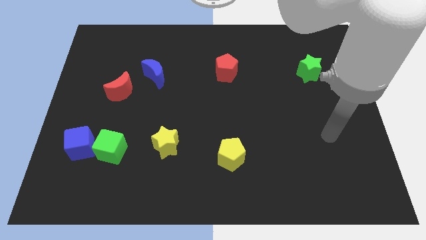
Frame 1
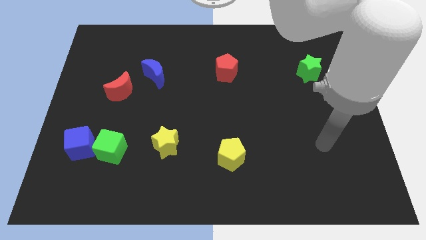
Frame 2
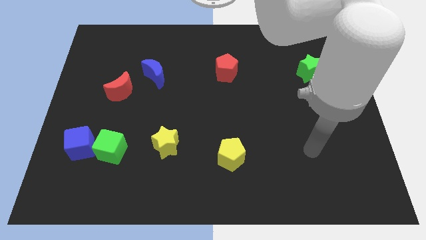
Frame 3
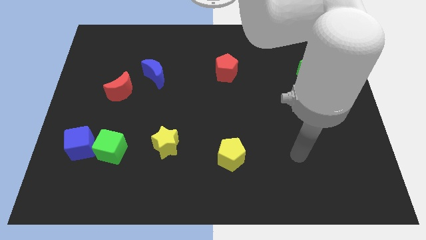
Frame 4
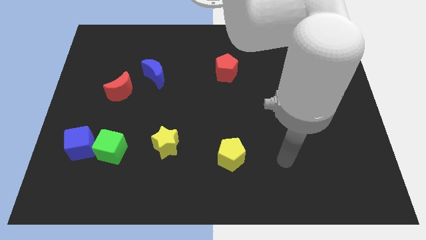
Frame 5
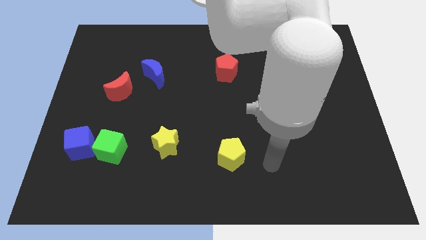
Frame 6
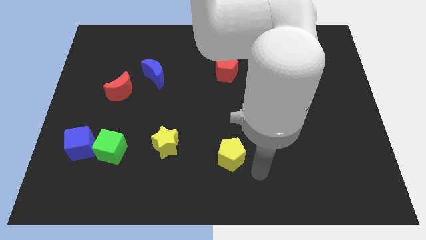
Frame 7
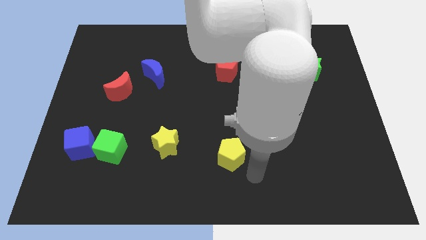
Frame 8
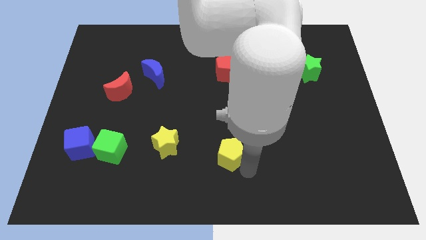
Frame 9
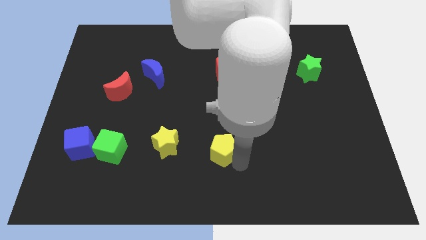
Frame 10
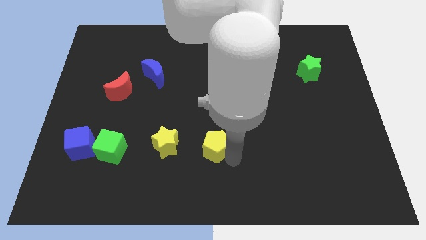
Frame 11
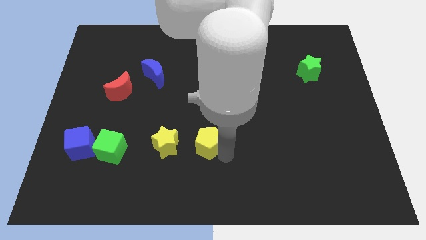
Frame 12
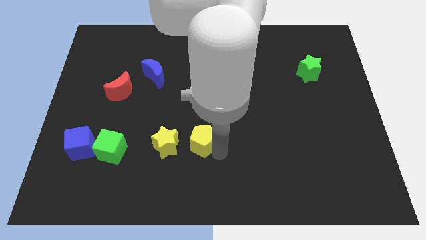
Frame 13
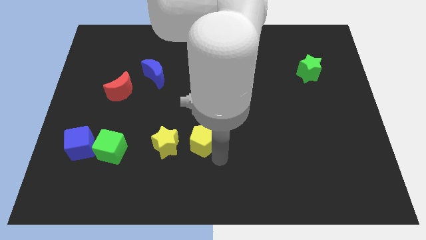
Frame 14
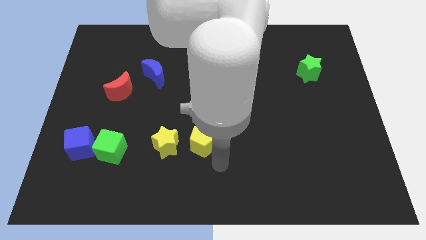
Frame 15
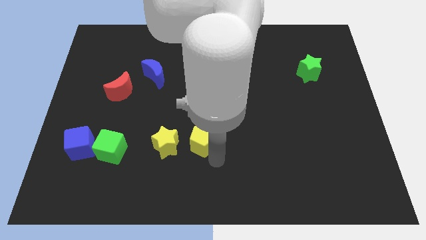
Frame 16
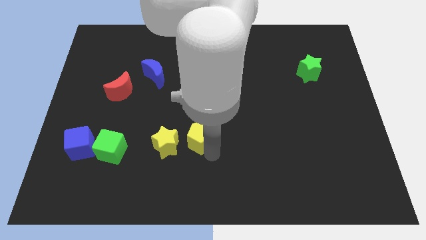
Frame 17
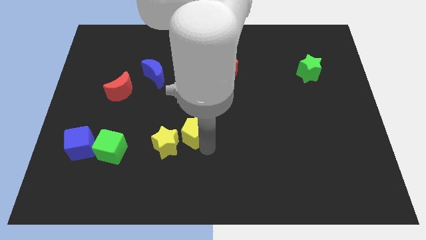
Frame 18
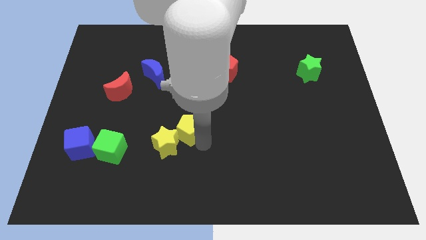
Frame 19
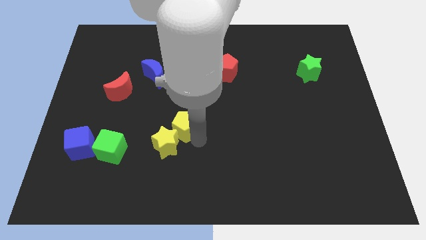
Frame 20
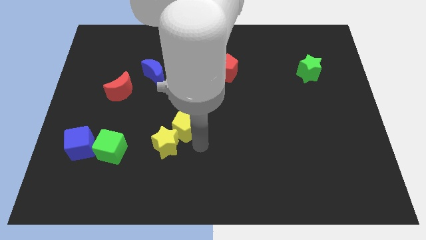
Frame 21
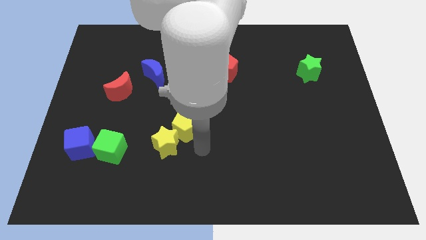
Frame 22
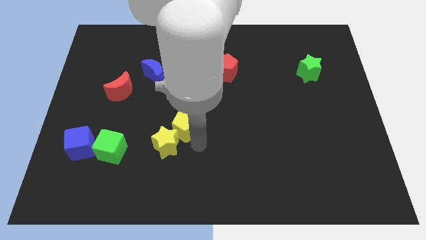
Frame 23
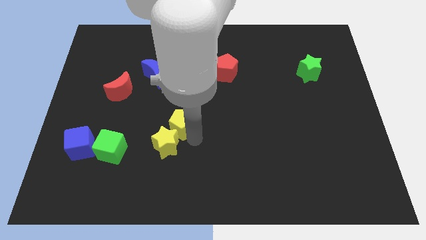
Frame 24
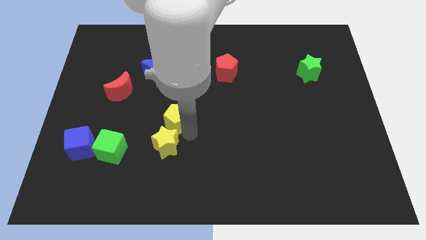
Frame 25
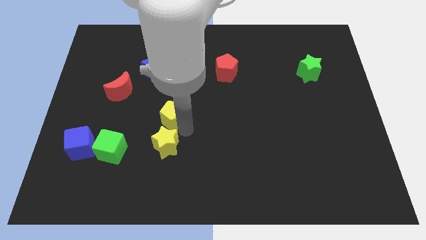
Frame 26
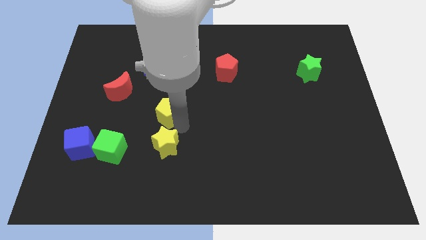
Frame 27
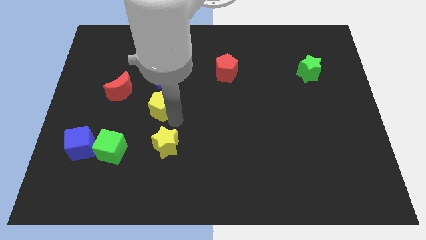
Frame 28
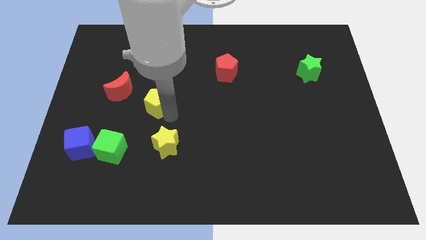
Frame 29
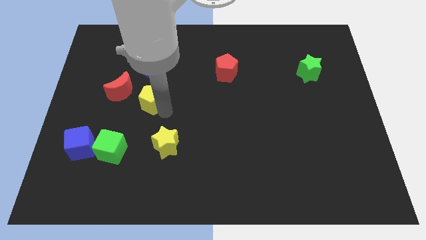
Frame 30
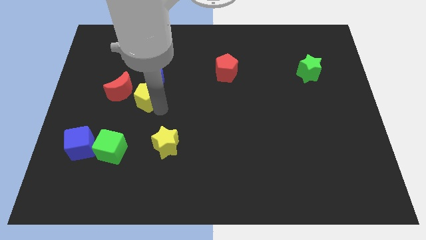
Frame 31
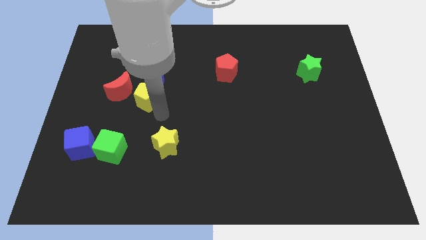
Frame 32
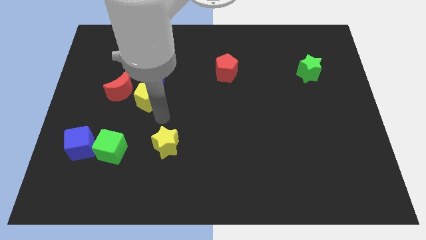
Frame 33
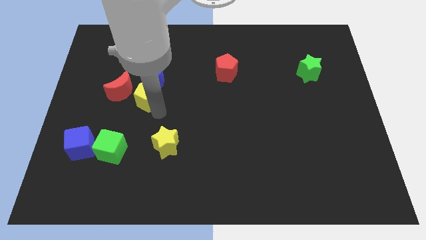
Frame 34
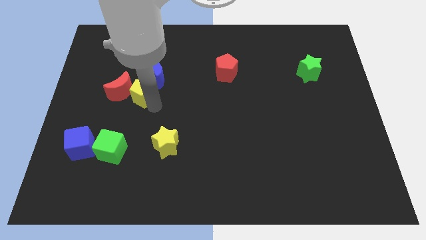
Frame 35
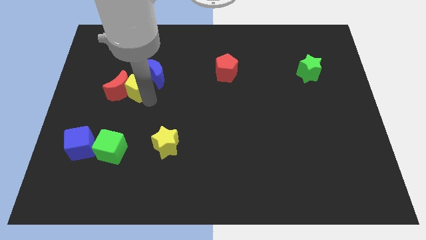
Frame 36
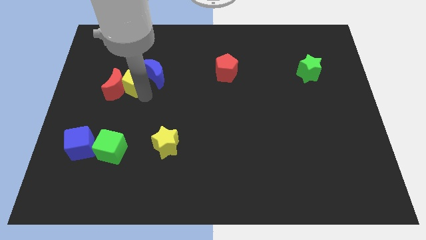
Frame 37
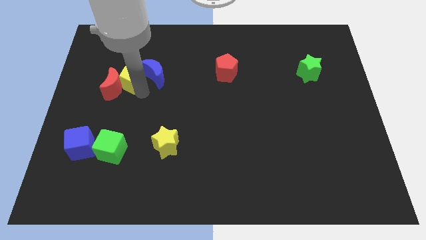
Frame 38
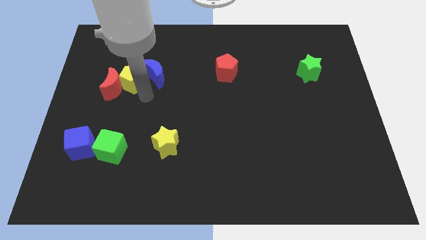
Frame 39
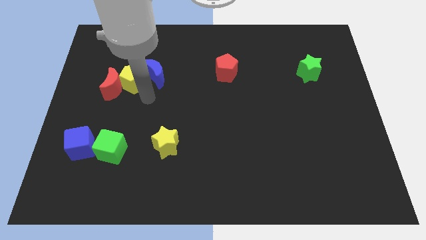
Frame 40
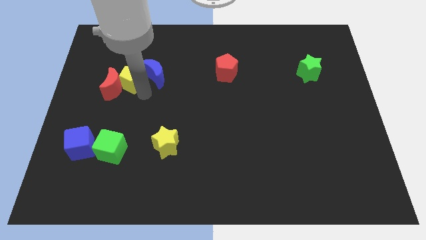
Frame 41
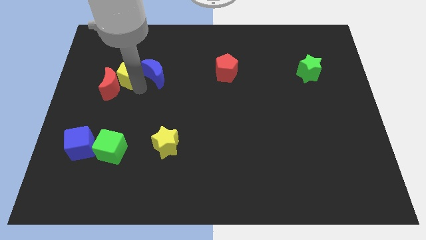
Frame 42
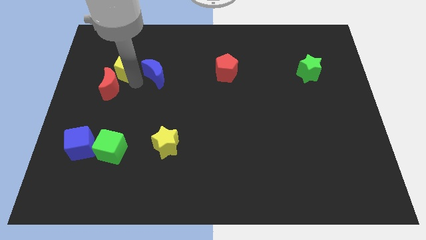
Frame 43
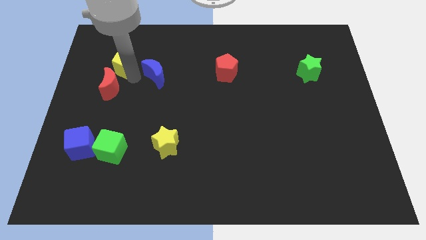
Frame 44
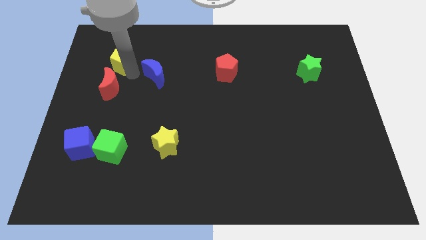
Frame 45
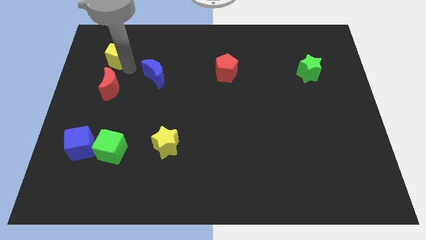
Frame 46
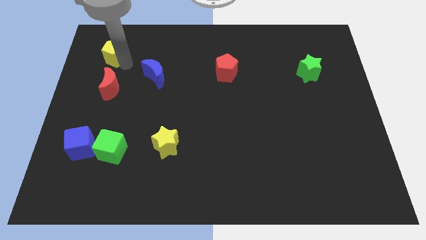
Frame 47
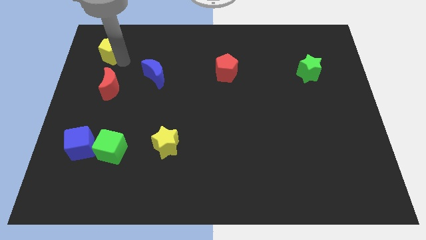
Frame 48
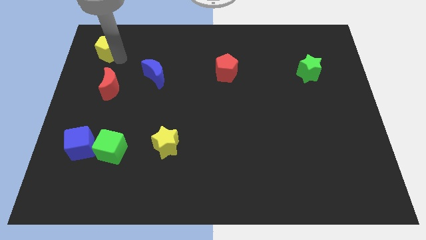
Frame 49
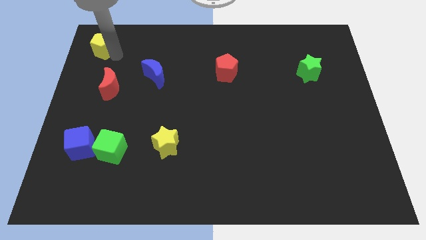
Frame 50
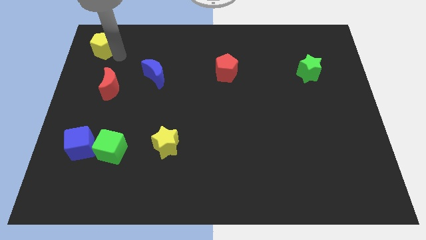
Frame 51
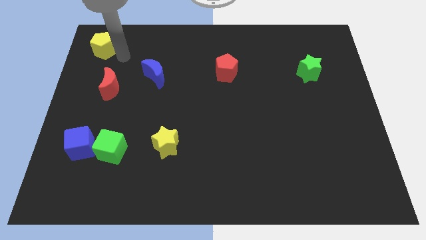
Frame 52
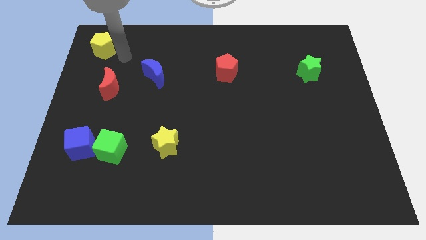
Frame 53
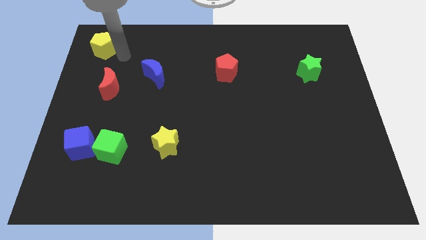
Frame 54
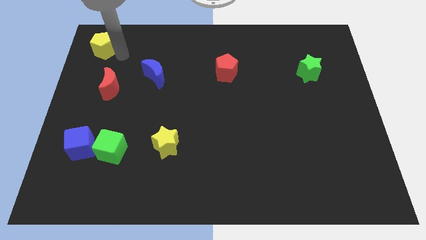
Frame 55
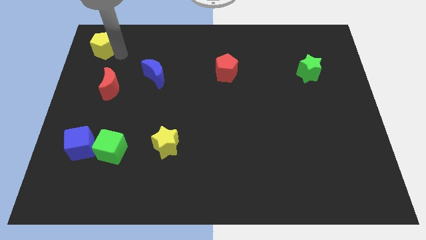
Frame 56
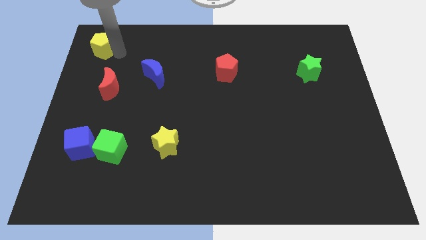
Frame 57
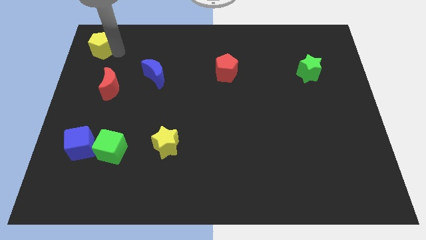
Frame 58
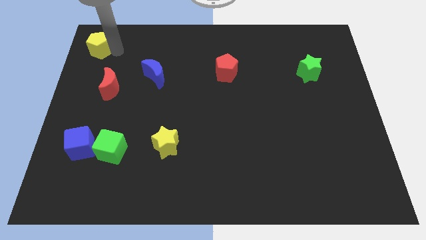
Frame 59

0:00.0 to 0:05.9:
slide the yellow pentagon to the upper left corner

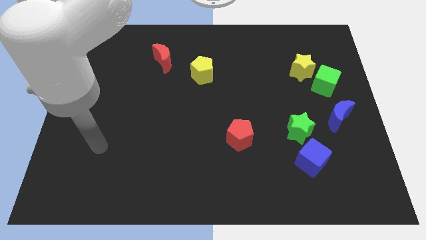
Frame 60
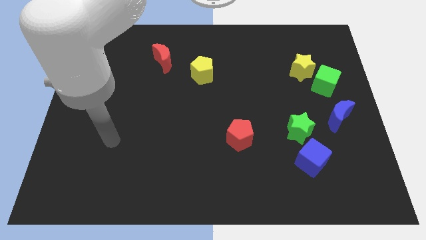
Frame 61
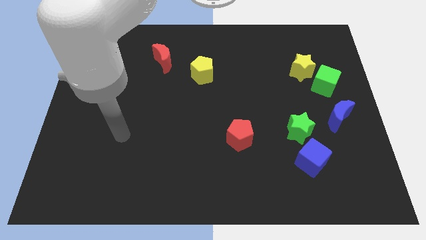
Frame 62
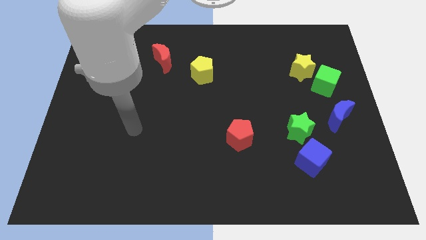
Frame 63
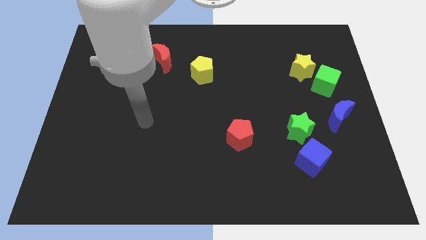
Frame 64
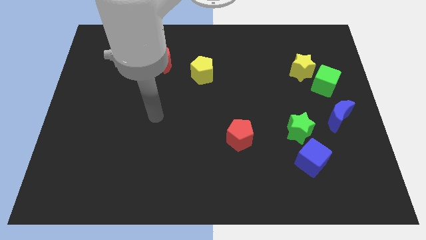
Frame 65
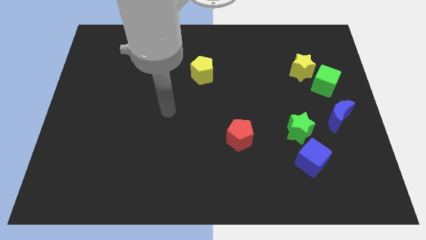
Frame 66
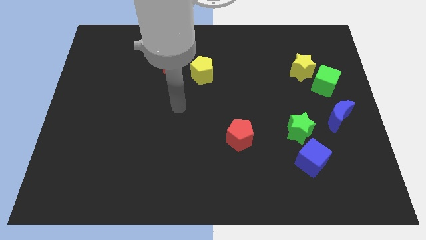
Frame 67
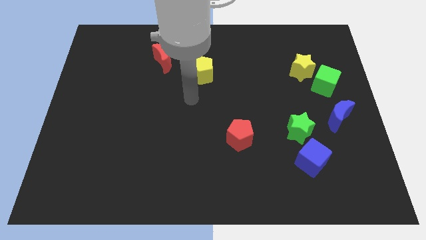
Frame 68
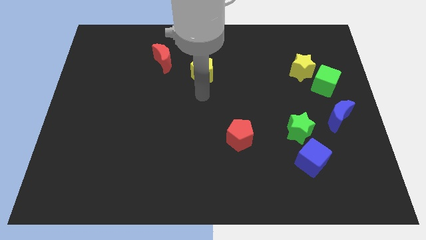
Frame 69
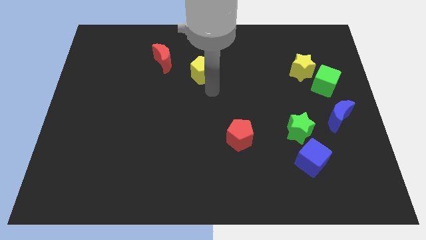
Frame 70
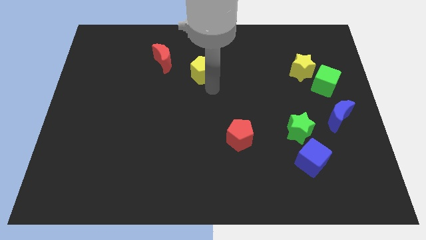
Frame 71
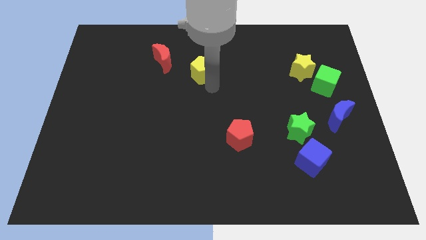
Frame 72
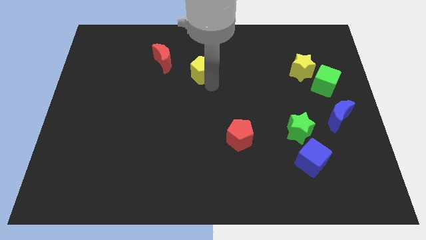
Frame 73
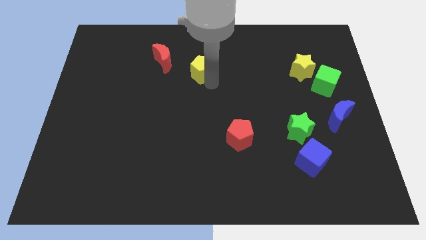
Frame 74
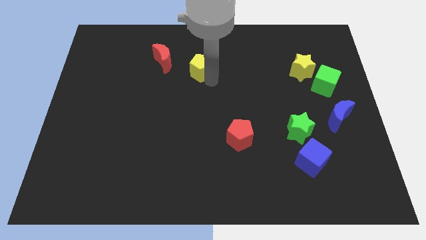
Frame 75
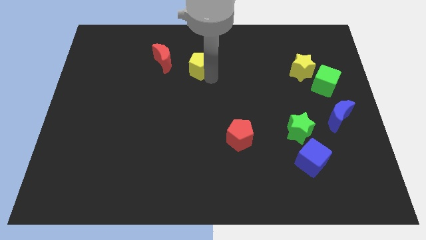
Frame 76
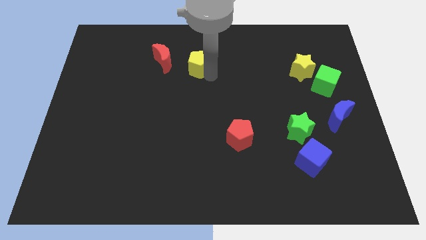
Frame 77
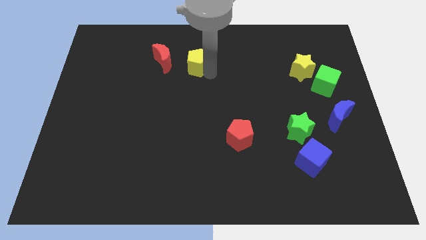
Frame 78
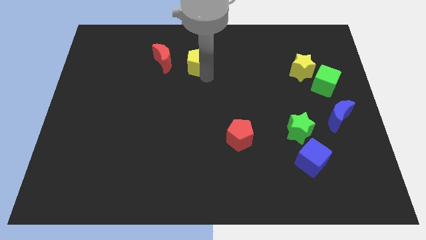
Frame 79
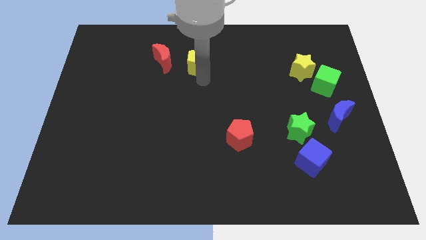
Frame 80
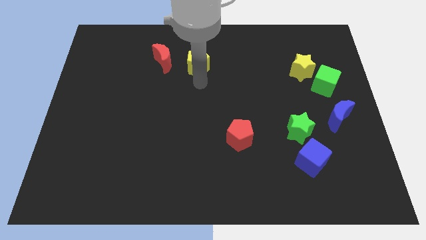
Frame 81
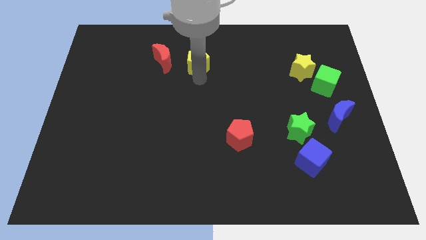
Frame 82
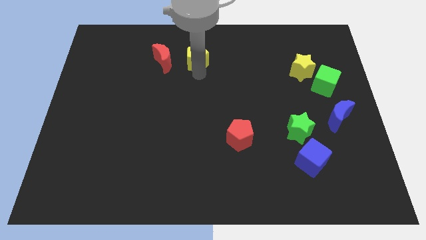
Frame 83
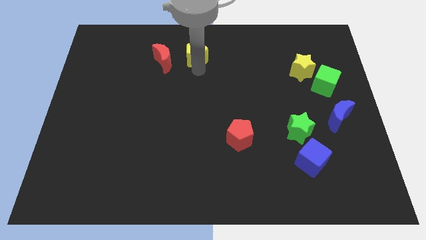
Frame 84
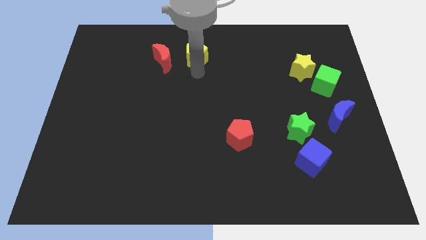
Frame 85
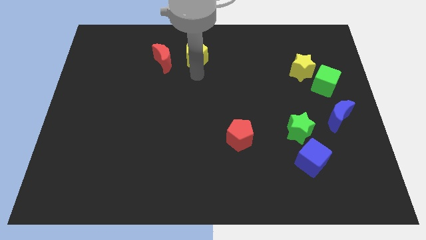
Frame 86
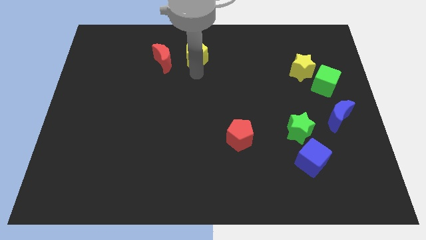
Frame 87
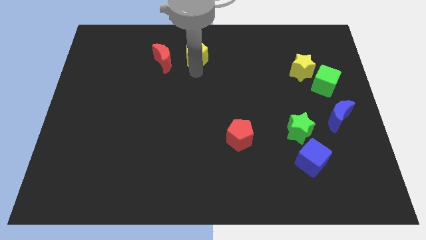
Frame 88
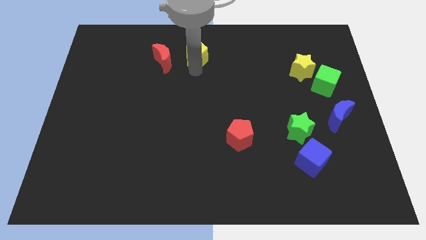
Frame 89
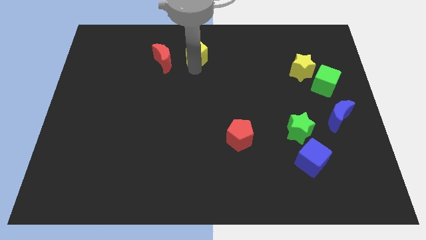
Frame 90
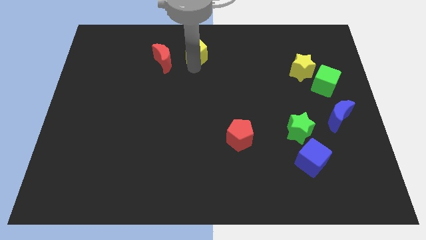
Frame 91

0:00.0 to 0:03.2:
move the yellow pentagon to the top side
